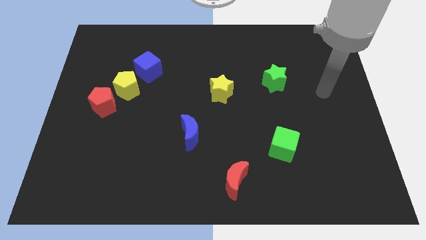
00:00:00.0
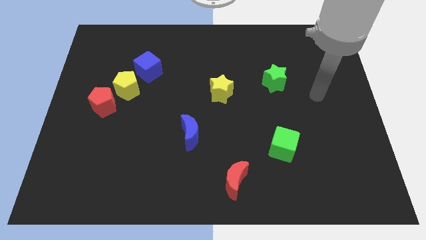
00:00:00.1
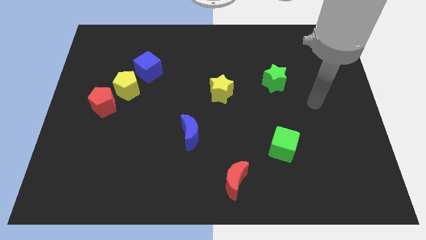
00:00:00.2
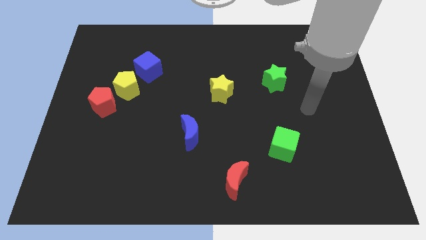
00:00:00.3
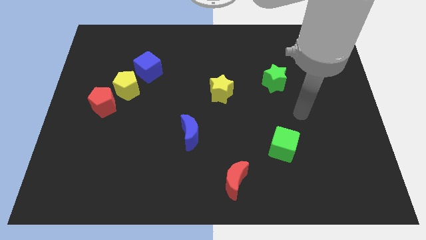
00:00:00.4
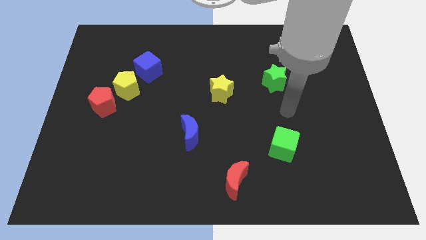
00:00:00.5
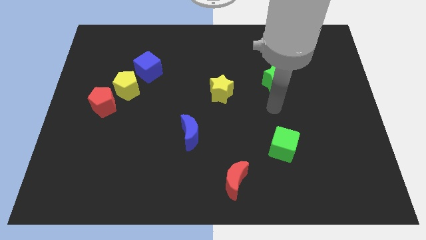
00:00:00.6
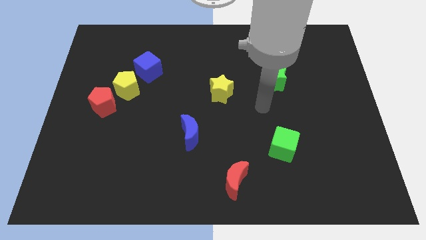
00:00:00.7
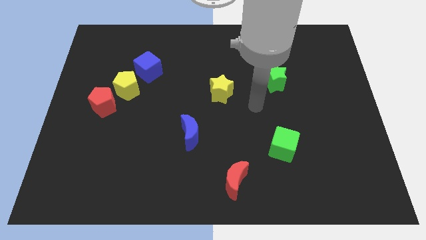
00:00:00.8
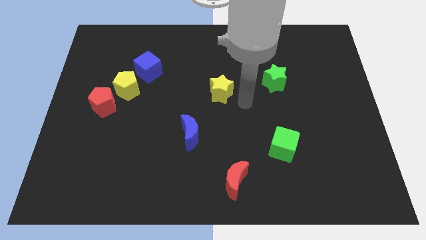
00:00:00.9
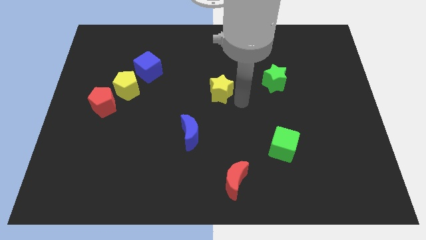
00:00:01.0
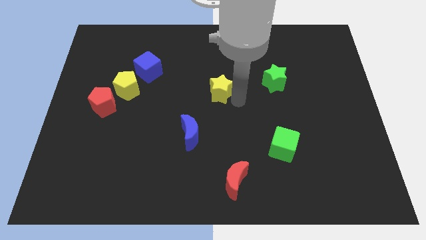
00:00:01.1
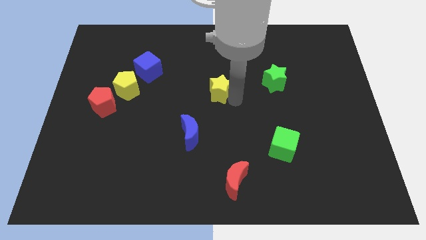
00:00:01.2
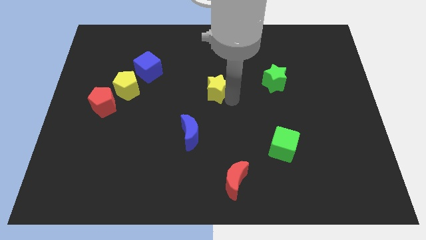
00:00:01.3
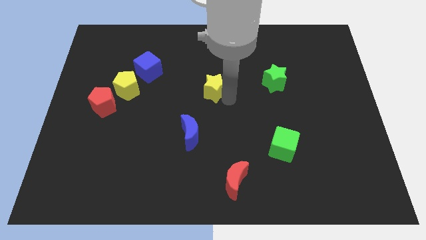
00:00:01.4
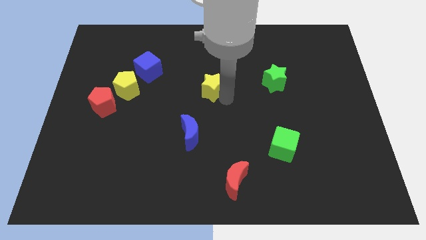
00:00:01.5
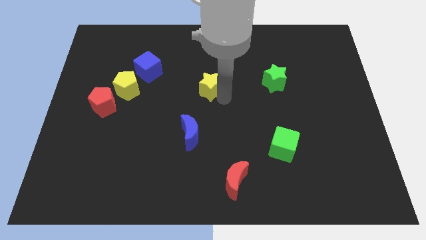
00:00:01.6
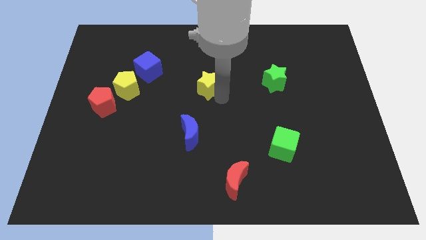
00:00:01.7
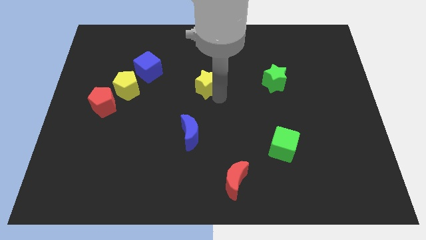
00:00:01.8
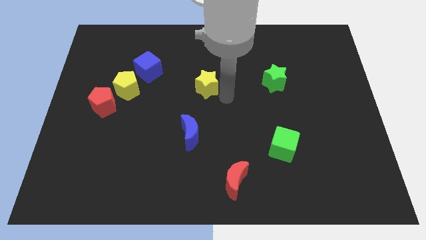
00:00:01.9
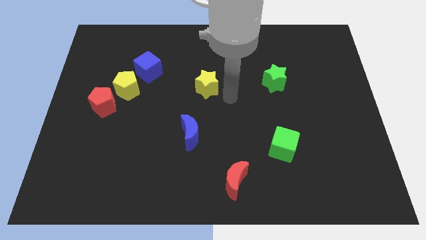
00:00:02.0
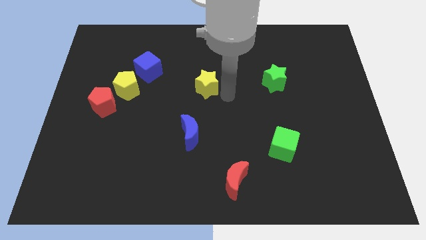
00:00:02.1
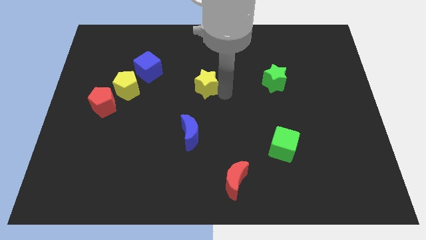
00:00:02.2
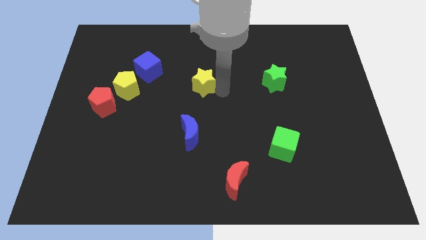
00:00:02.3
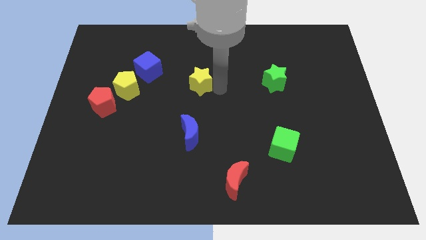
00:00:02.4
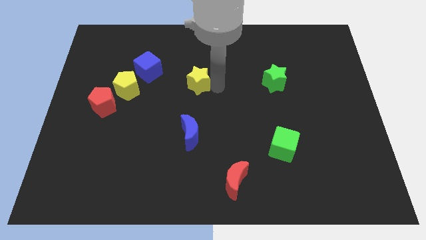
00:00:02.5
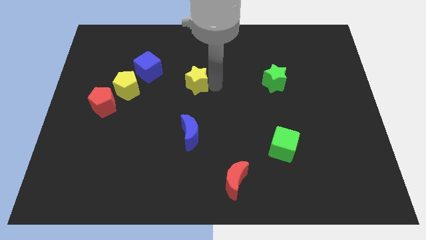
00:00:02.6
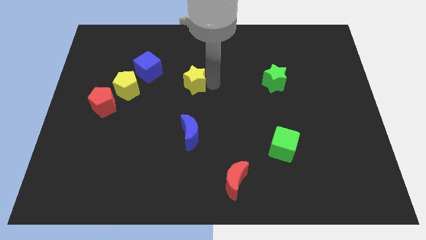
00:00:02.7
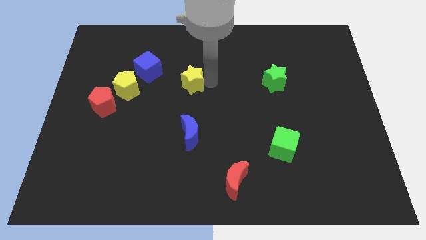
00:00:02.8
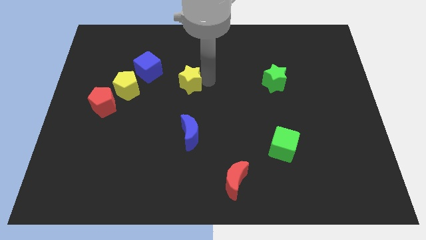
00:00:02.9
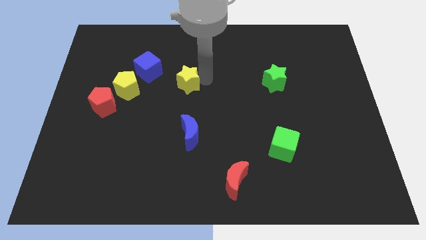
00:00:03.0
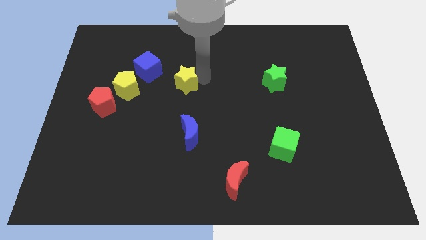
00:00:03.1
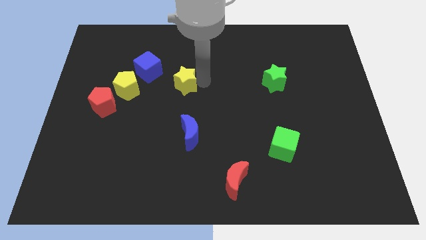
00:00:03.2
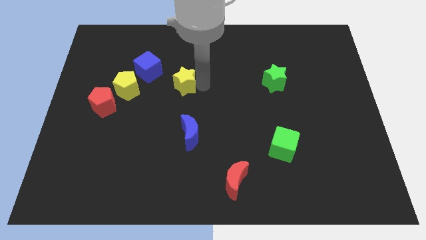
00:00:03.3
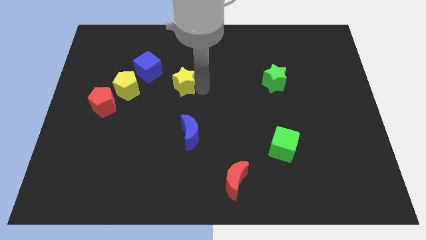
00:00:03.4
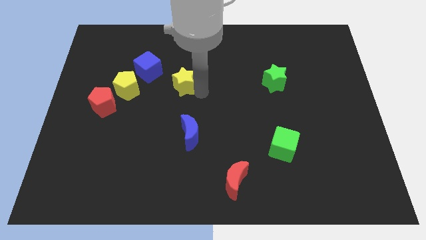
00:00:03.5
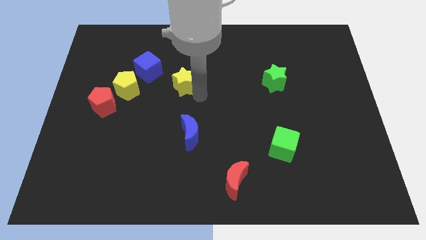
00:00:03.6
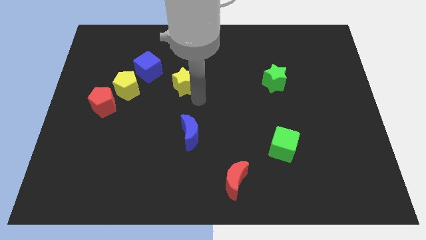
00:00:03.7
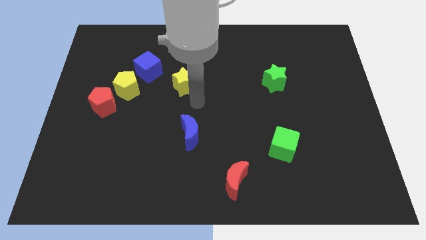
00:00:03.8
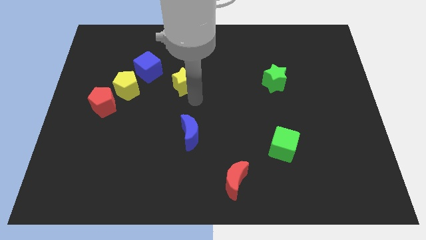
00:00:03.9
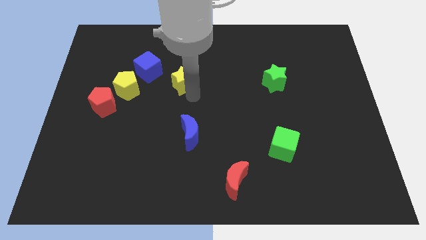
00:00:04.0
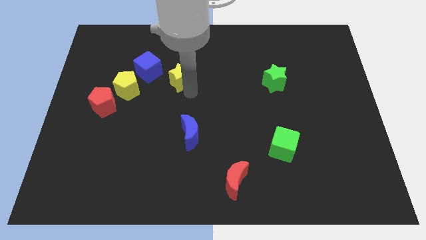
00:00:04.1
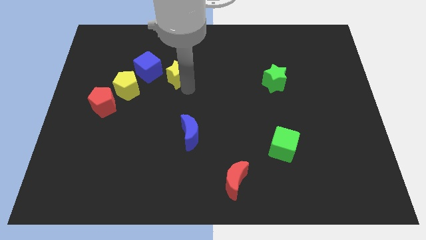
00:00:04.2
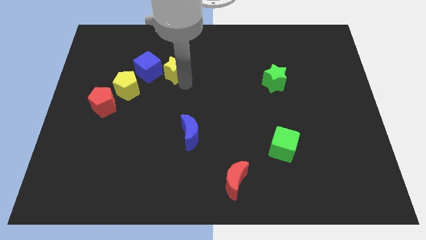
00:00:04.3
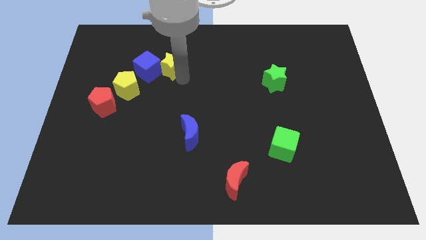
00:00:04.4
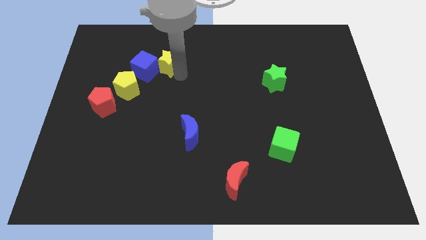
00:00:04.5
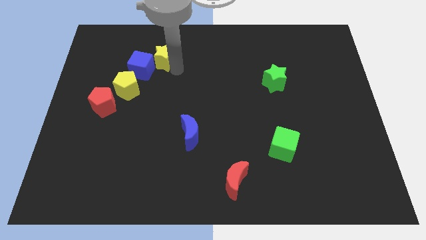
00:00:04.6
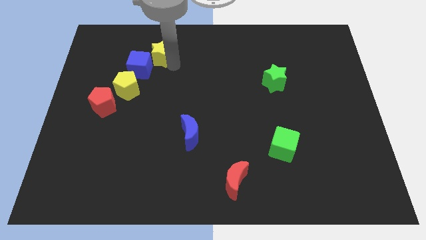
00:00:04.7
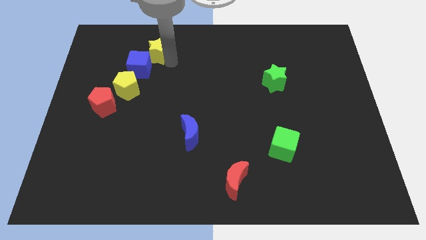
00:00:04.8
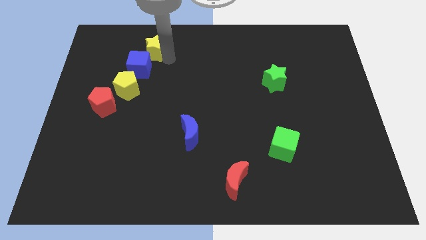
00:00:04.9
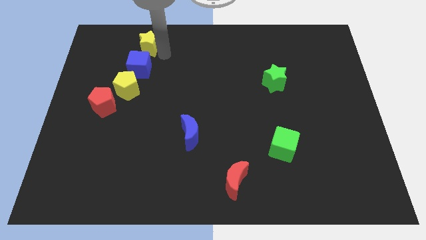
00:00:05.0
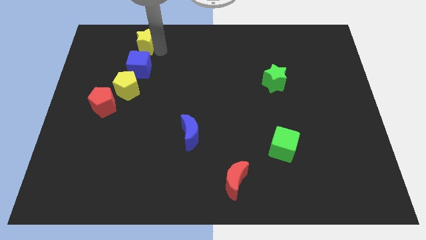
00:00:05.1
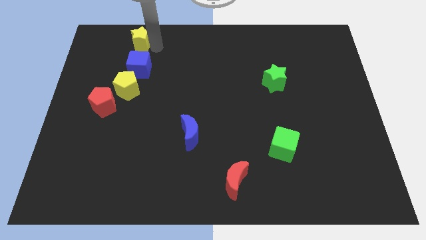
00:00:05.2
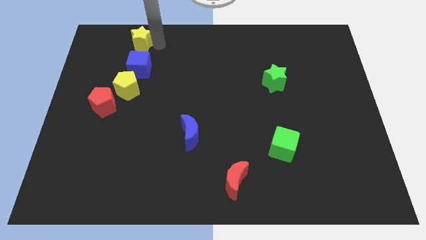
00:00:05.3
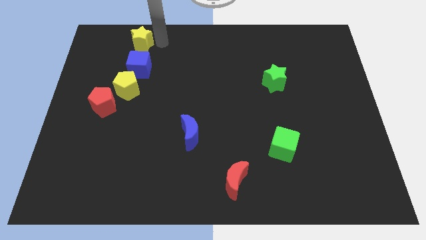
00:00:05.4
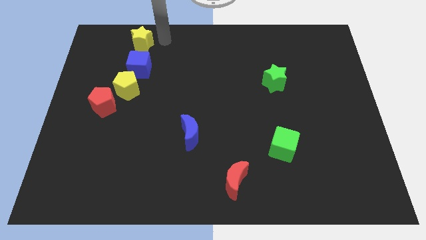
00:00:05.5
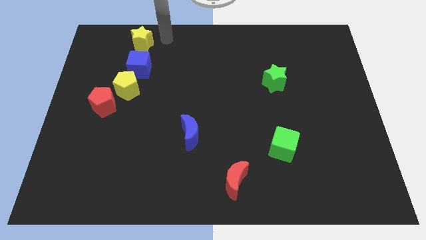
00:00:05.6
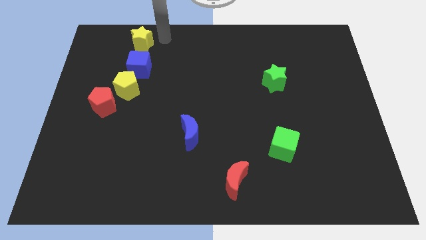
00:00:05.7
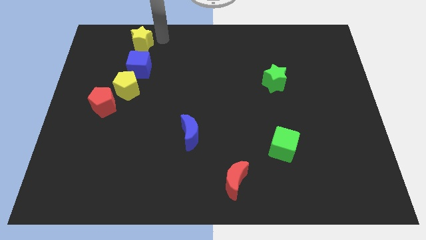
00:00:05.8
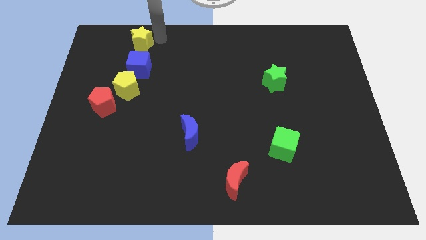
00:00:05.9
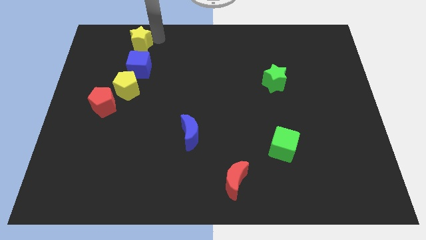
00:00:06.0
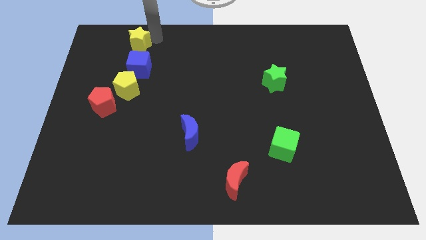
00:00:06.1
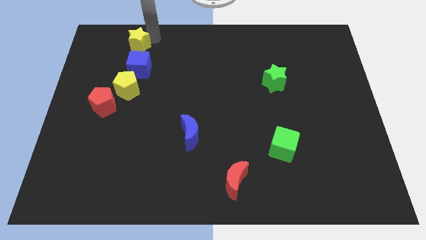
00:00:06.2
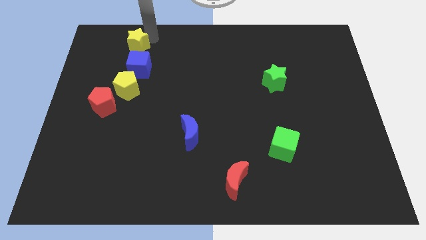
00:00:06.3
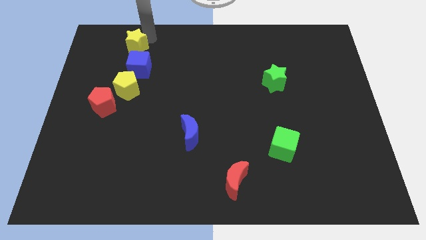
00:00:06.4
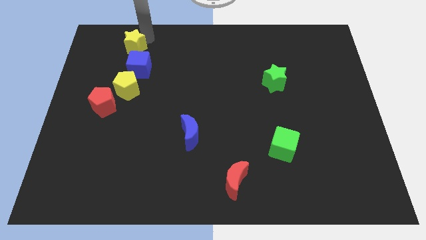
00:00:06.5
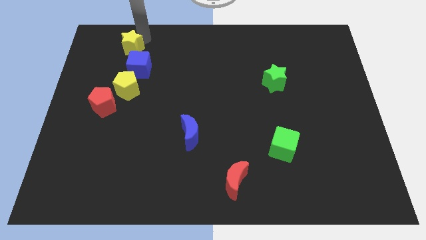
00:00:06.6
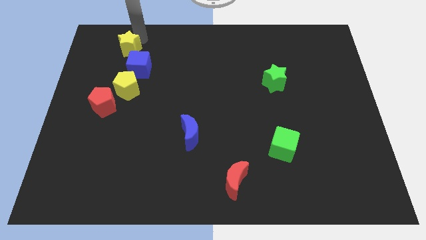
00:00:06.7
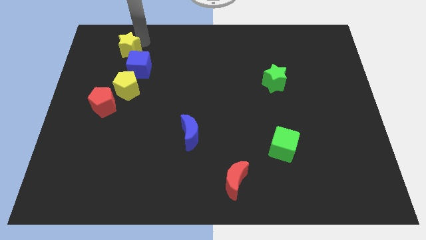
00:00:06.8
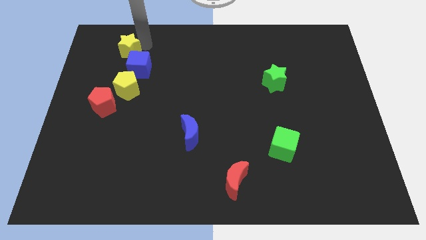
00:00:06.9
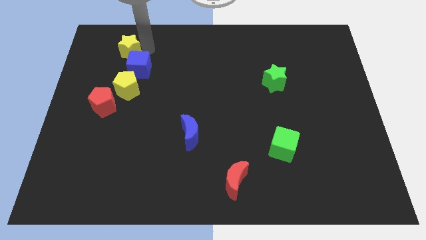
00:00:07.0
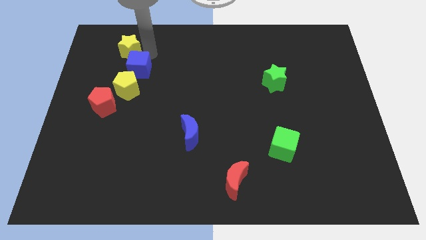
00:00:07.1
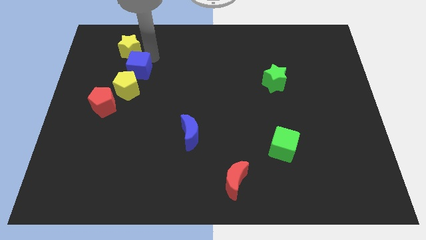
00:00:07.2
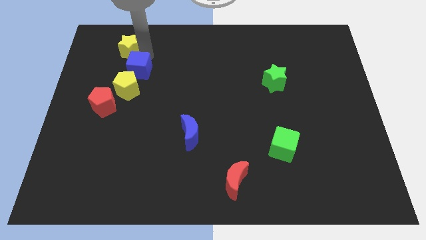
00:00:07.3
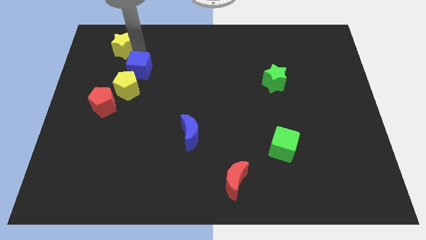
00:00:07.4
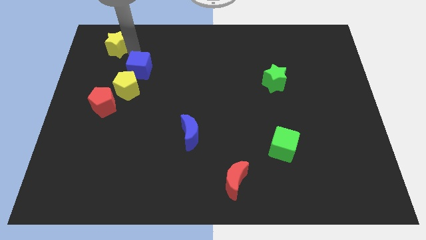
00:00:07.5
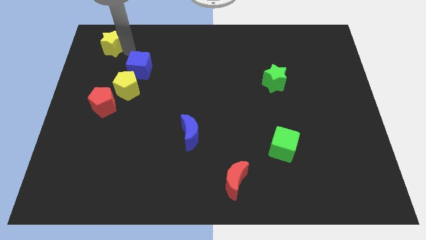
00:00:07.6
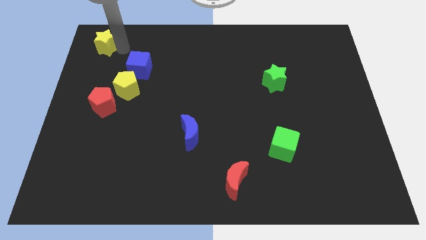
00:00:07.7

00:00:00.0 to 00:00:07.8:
slide the yellow star to the top left
